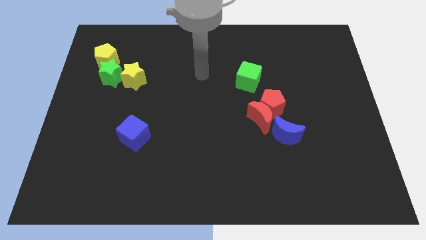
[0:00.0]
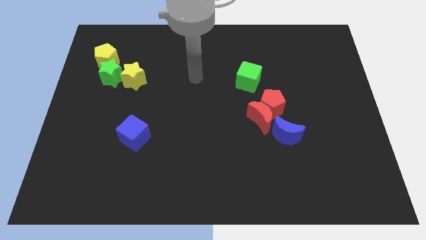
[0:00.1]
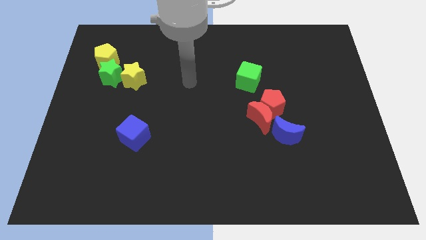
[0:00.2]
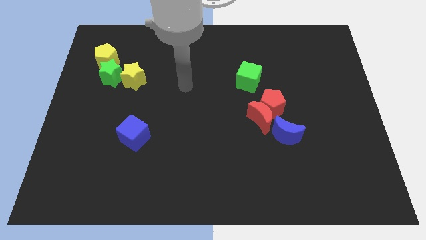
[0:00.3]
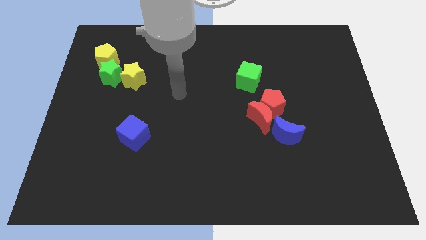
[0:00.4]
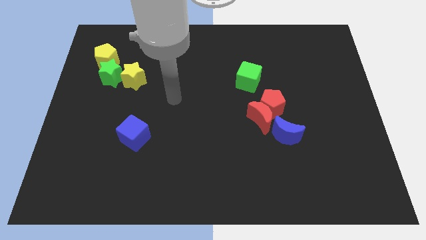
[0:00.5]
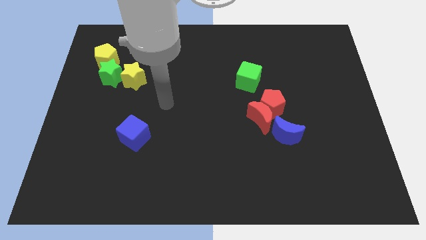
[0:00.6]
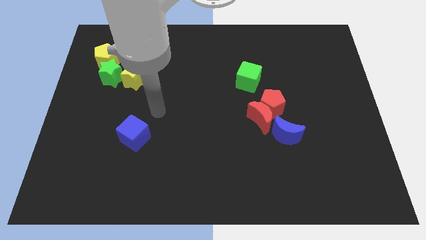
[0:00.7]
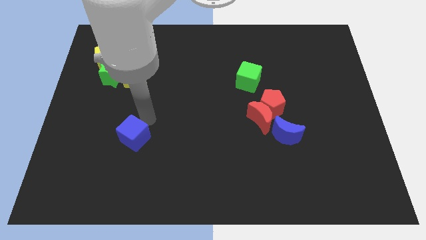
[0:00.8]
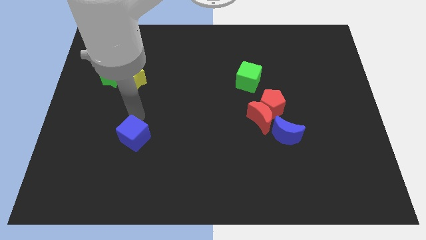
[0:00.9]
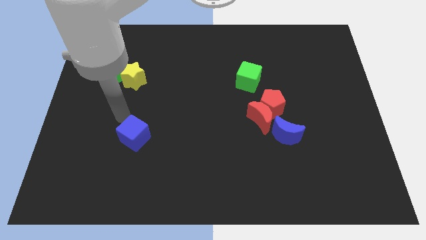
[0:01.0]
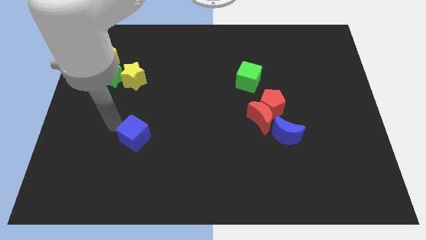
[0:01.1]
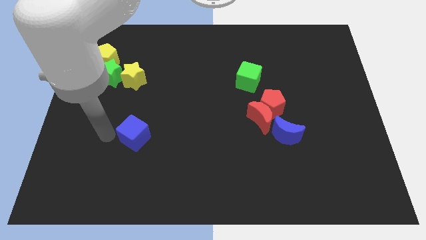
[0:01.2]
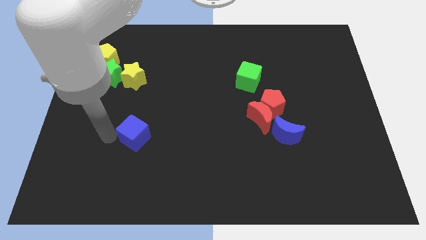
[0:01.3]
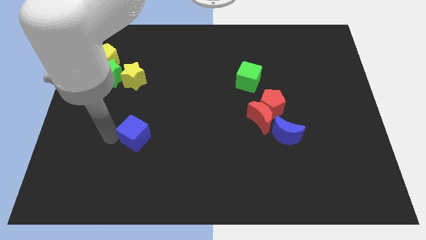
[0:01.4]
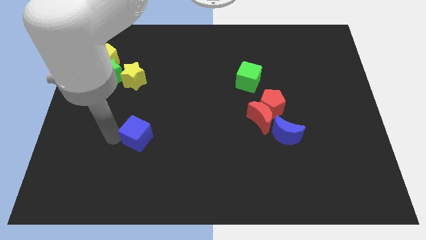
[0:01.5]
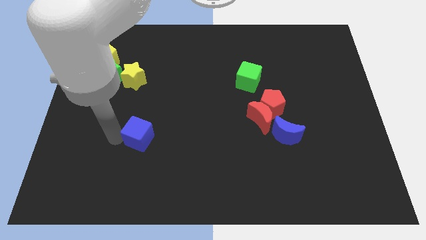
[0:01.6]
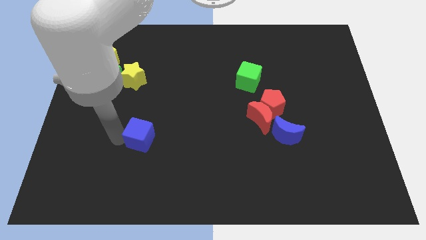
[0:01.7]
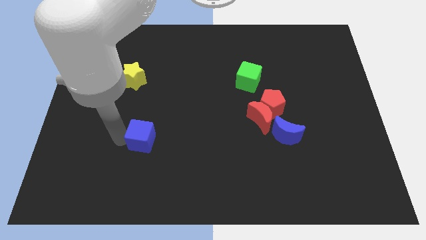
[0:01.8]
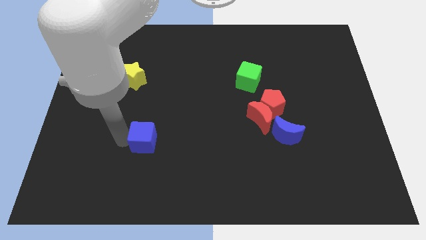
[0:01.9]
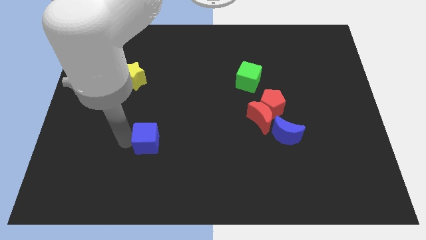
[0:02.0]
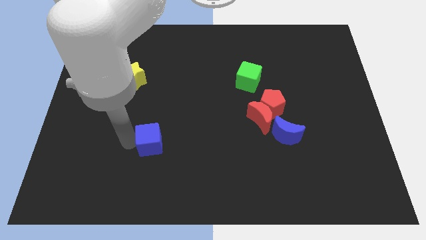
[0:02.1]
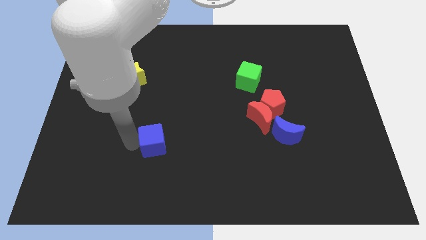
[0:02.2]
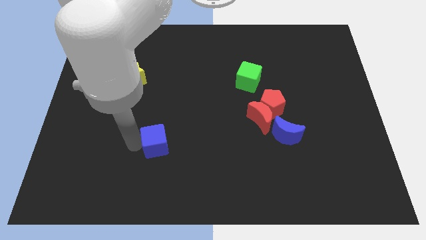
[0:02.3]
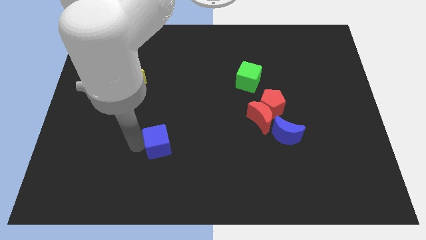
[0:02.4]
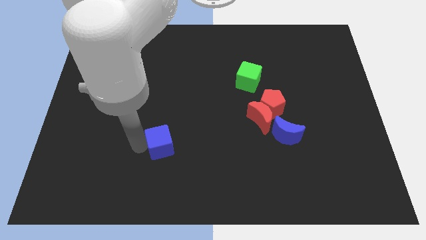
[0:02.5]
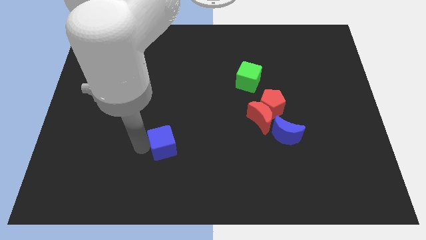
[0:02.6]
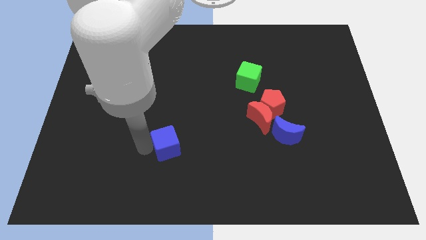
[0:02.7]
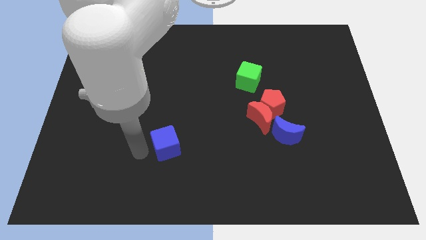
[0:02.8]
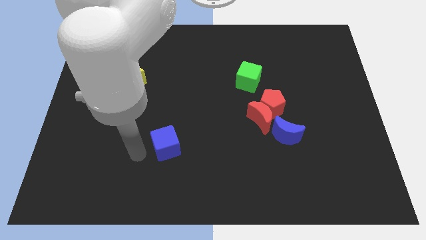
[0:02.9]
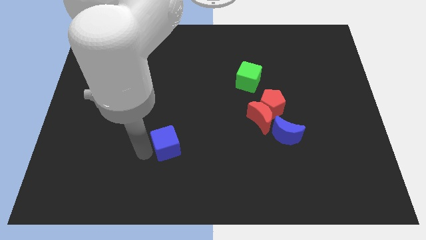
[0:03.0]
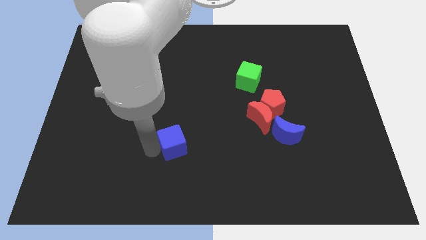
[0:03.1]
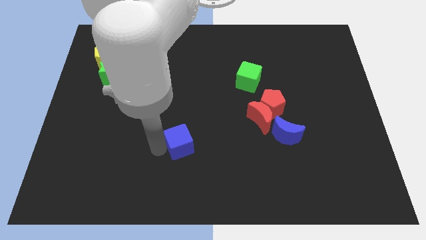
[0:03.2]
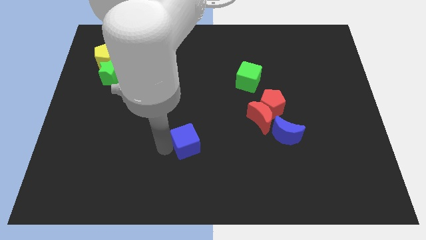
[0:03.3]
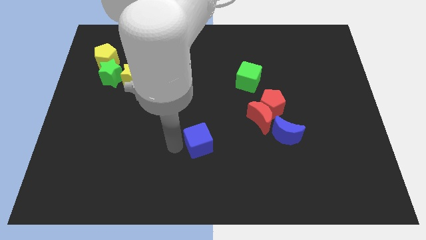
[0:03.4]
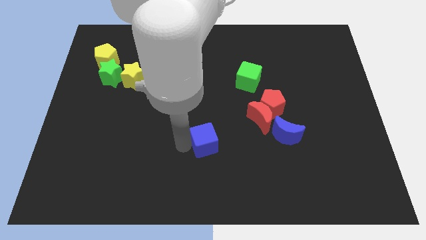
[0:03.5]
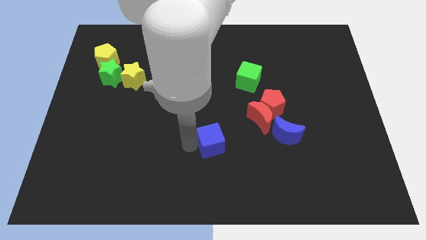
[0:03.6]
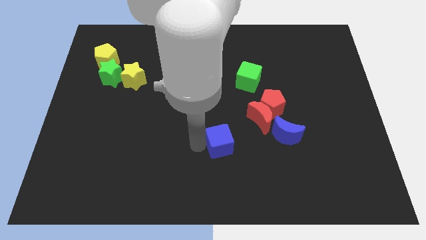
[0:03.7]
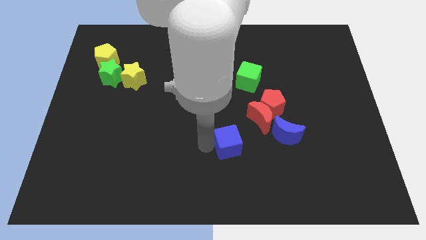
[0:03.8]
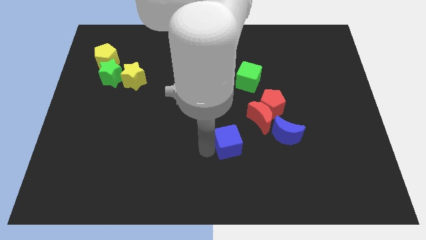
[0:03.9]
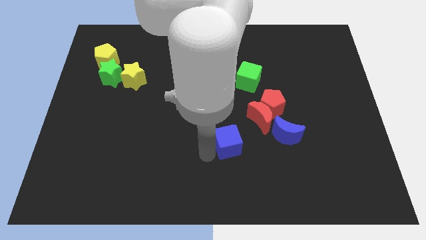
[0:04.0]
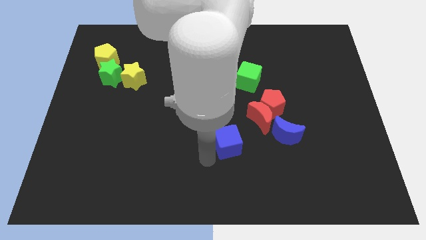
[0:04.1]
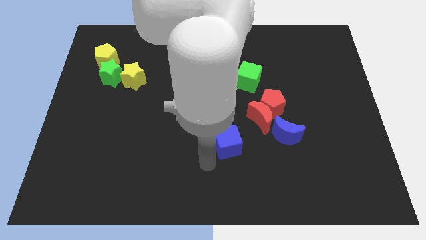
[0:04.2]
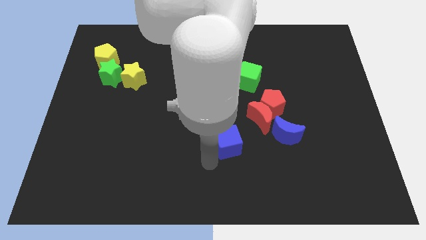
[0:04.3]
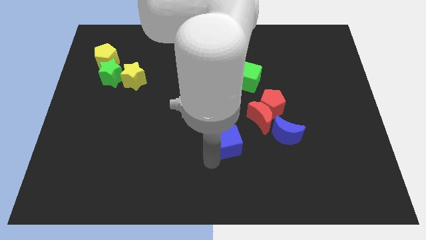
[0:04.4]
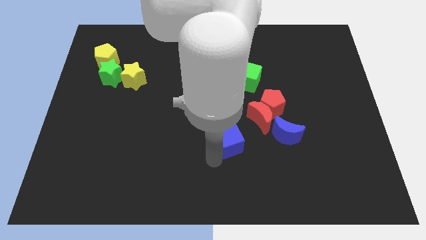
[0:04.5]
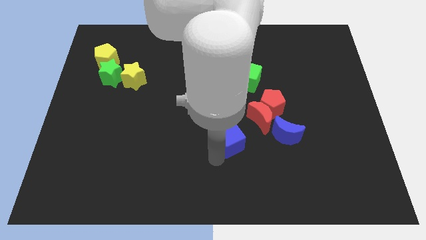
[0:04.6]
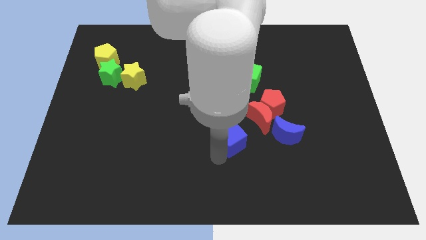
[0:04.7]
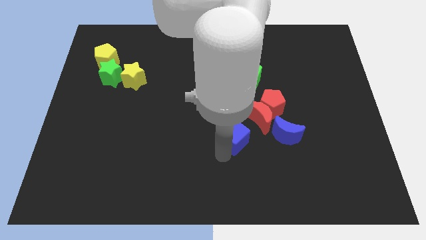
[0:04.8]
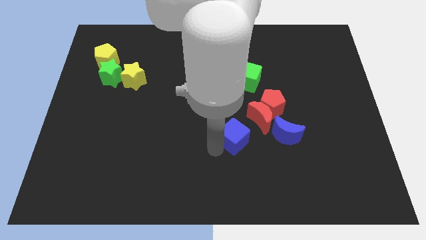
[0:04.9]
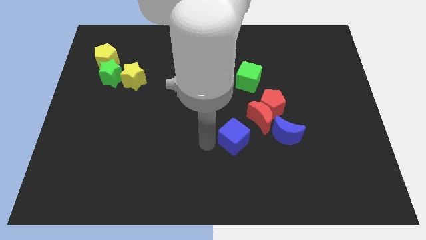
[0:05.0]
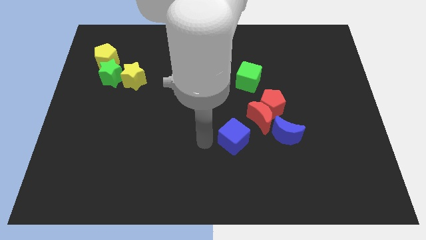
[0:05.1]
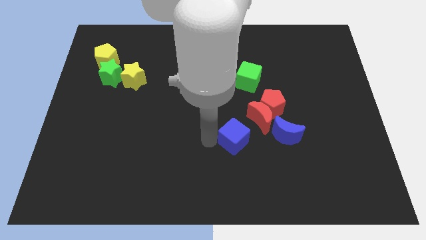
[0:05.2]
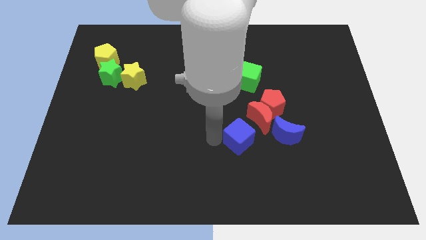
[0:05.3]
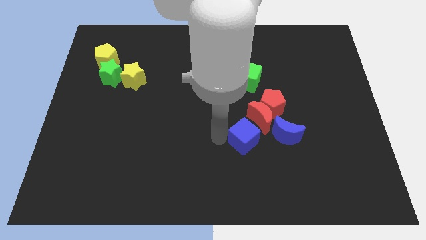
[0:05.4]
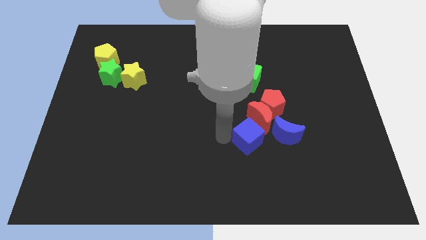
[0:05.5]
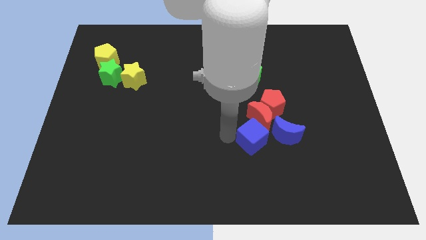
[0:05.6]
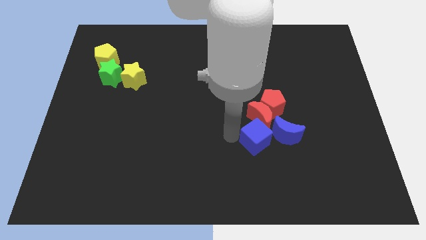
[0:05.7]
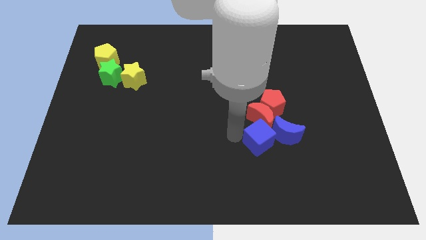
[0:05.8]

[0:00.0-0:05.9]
move the blue cube towards the blue moon

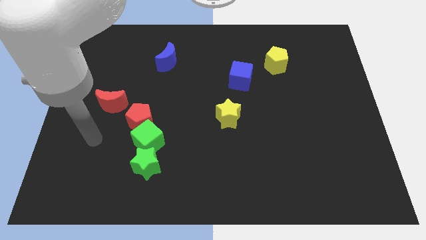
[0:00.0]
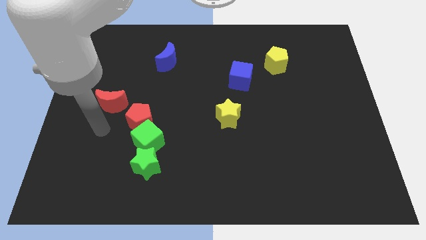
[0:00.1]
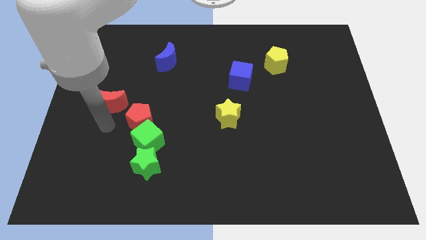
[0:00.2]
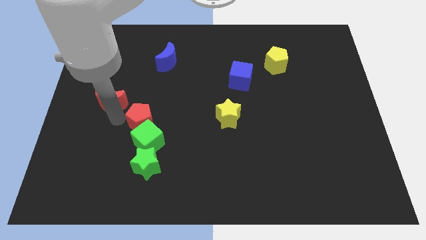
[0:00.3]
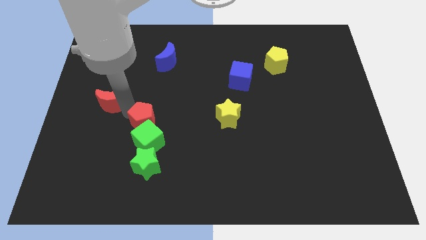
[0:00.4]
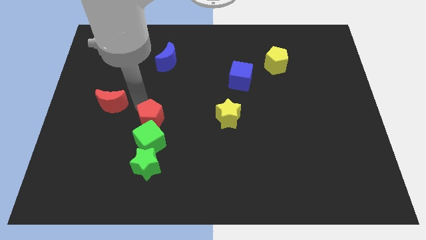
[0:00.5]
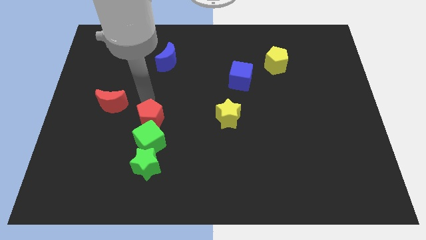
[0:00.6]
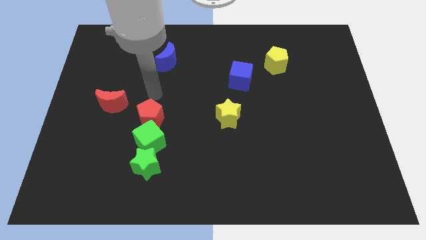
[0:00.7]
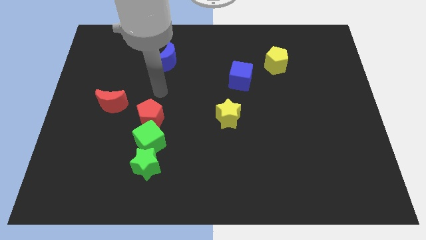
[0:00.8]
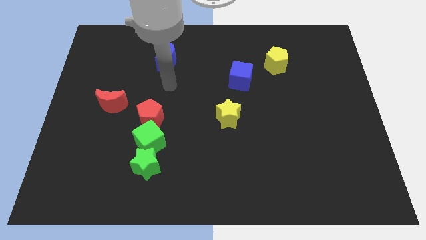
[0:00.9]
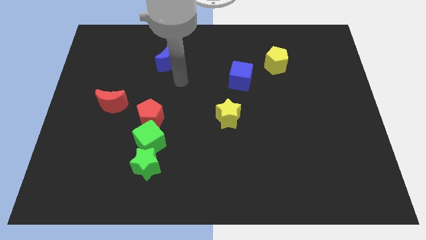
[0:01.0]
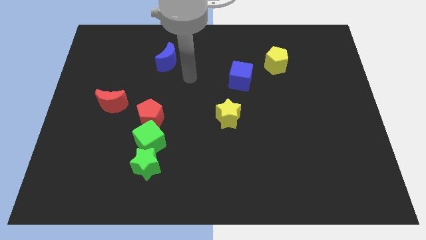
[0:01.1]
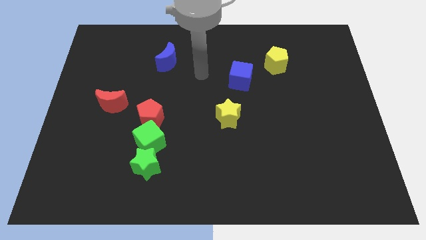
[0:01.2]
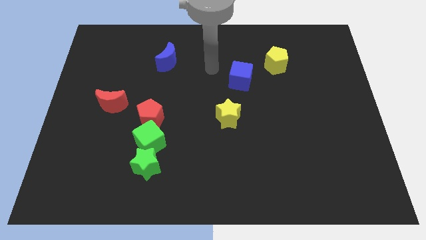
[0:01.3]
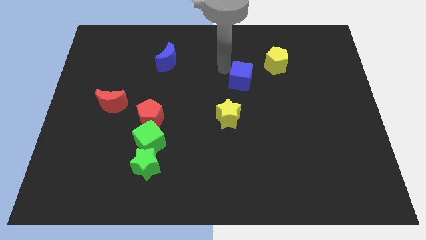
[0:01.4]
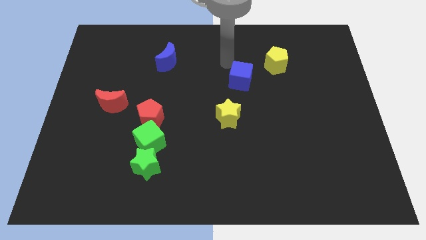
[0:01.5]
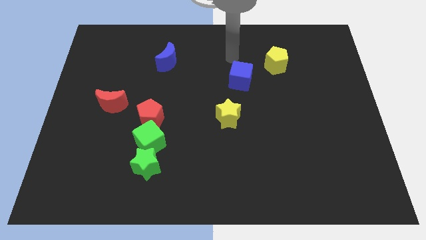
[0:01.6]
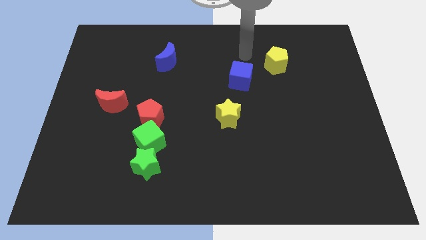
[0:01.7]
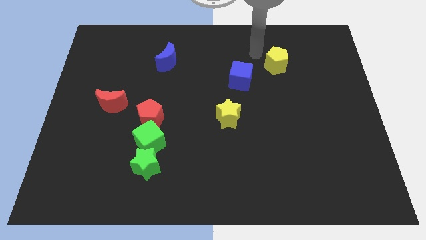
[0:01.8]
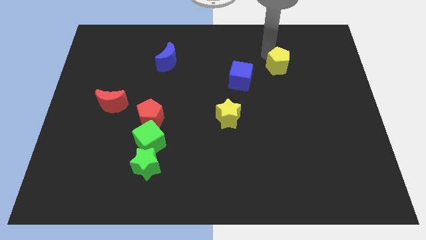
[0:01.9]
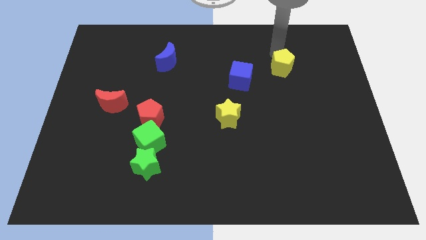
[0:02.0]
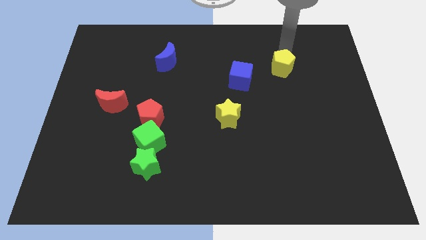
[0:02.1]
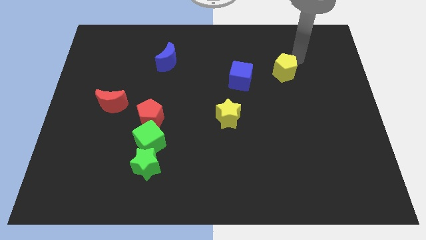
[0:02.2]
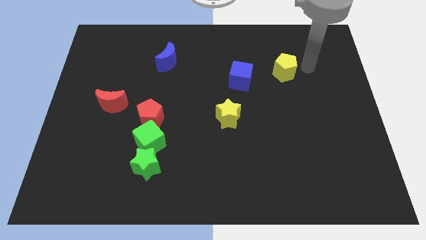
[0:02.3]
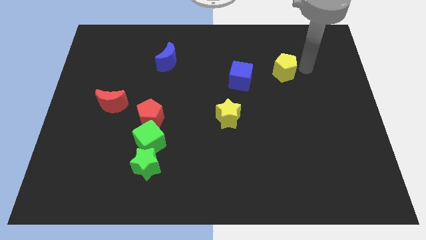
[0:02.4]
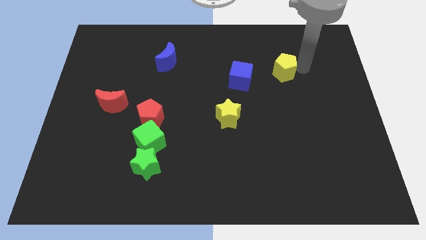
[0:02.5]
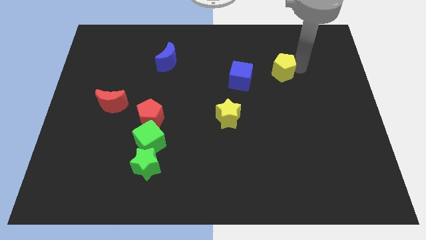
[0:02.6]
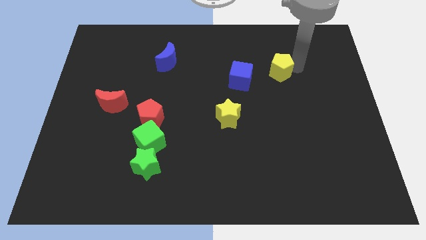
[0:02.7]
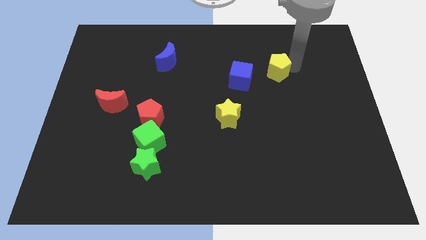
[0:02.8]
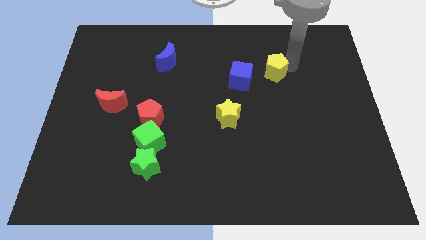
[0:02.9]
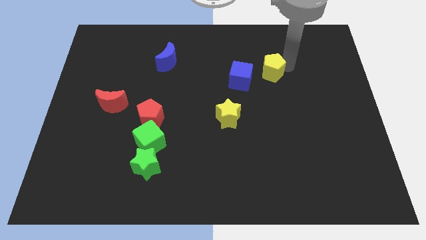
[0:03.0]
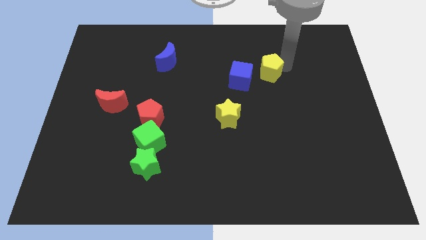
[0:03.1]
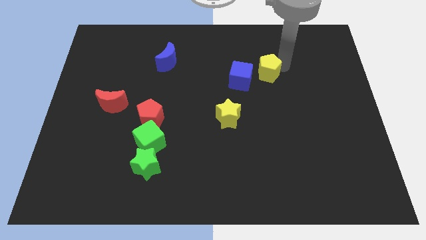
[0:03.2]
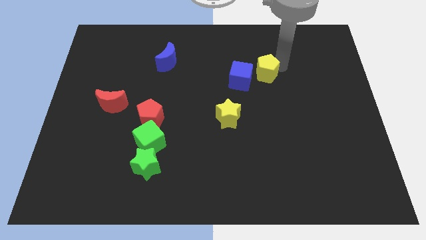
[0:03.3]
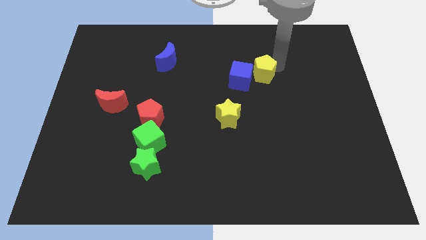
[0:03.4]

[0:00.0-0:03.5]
move the yellow pentagon to the blue cube
